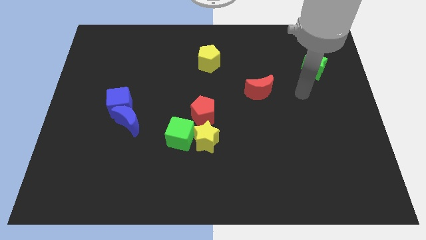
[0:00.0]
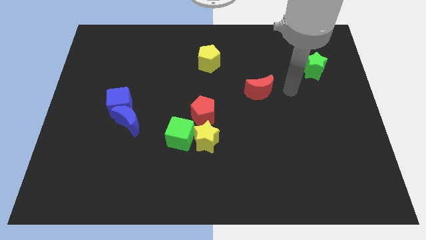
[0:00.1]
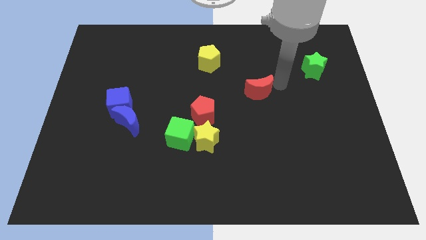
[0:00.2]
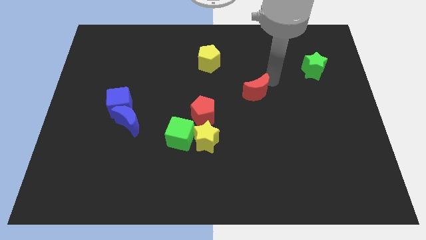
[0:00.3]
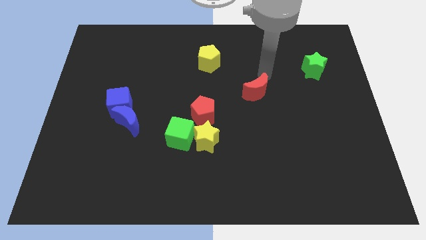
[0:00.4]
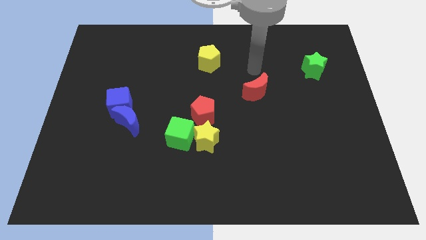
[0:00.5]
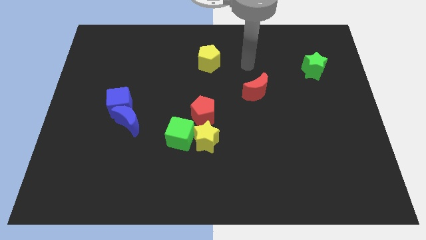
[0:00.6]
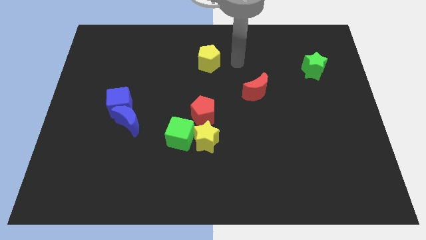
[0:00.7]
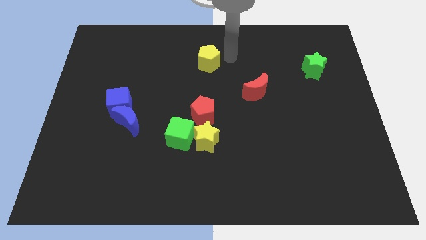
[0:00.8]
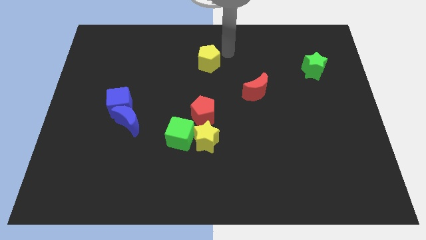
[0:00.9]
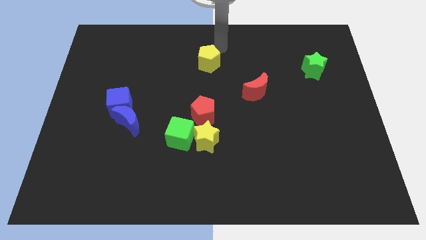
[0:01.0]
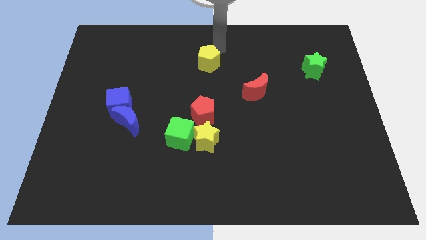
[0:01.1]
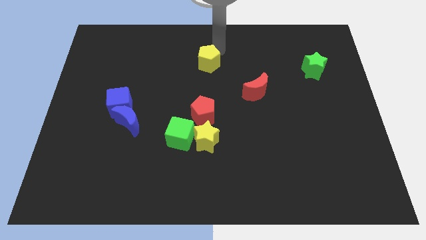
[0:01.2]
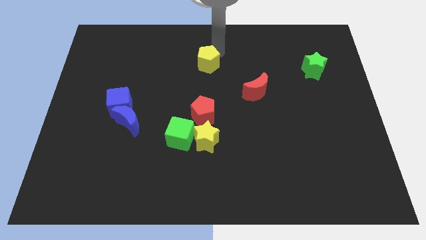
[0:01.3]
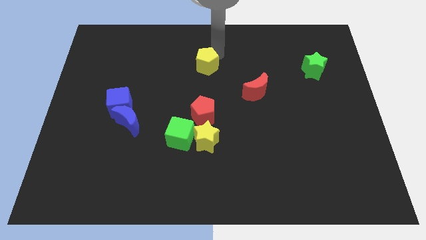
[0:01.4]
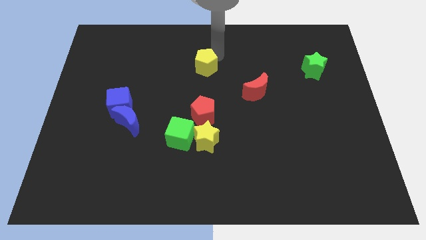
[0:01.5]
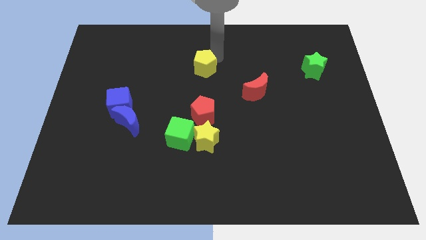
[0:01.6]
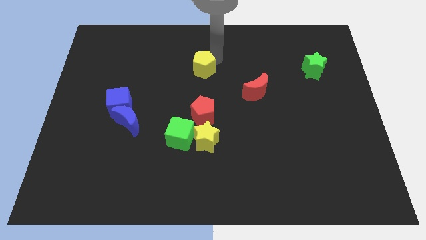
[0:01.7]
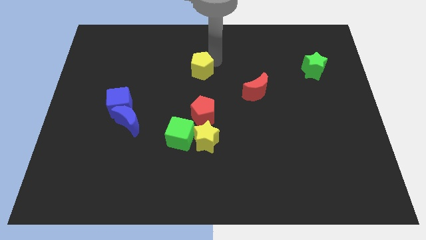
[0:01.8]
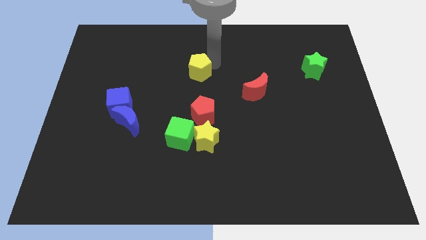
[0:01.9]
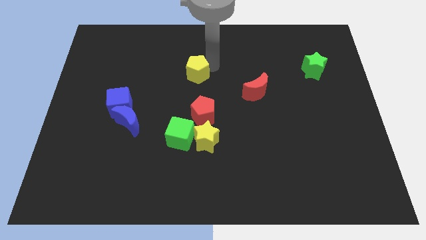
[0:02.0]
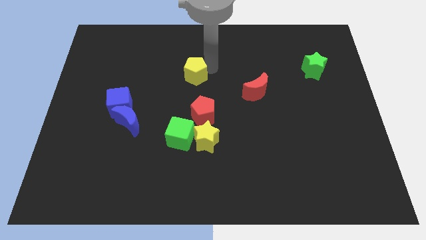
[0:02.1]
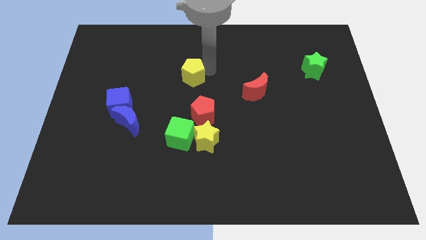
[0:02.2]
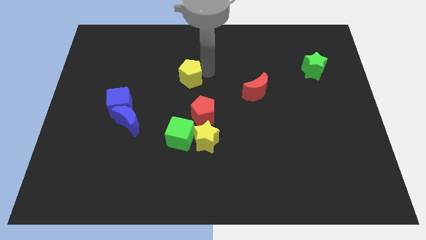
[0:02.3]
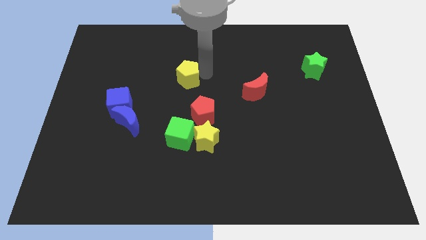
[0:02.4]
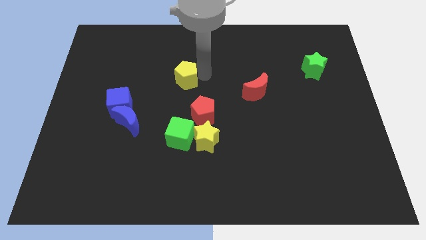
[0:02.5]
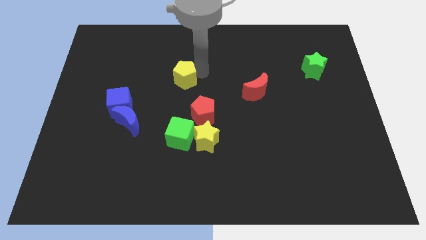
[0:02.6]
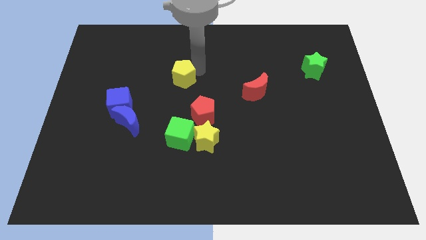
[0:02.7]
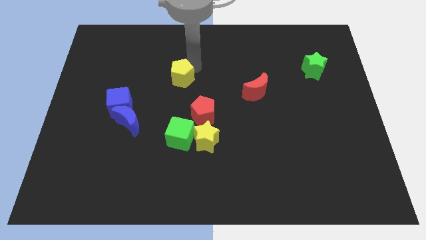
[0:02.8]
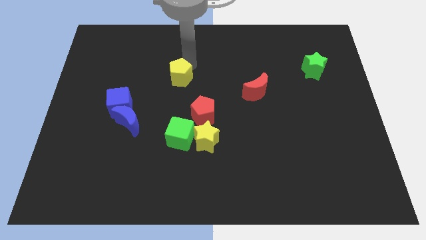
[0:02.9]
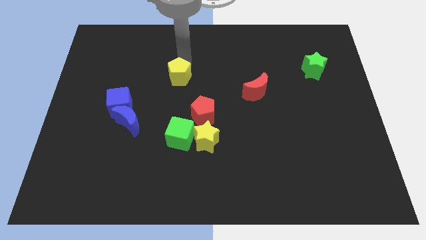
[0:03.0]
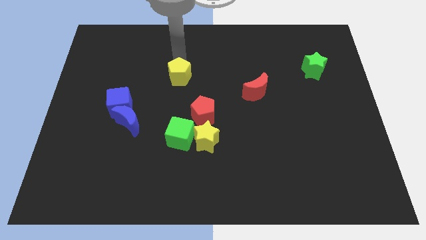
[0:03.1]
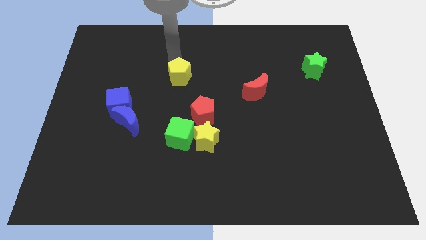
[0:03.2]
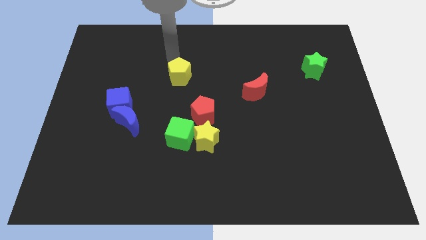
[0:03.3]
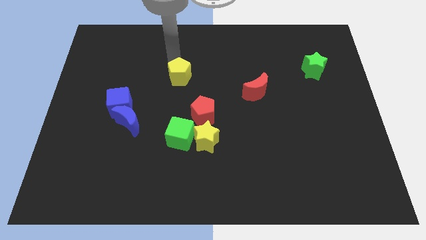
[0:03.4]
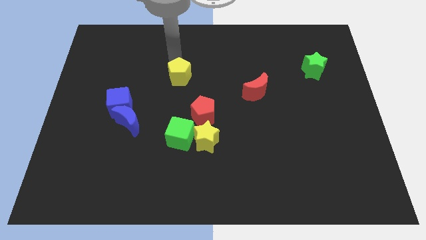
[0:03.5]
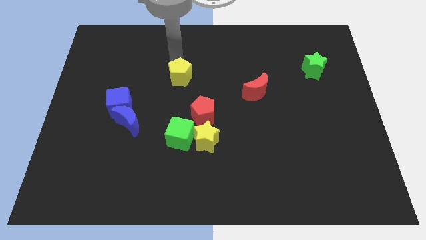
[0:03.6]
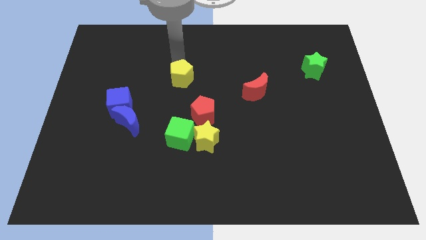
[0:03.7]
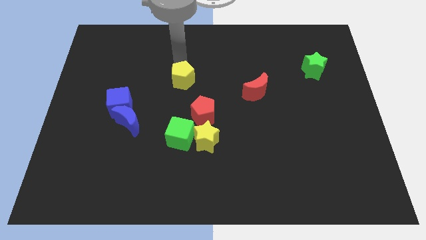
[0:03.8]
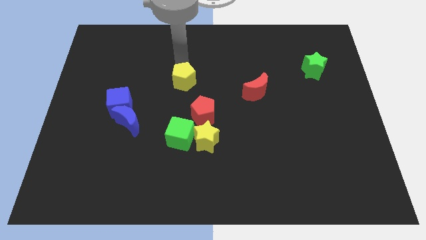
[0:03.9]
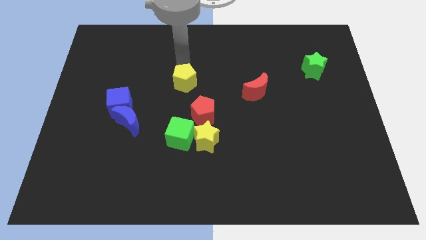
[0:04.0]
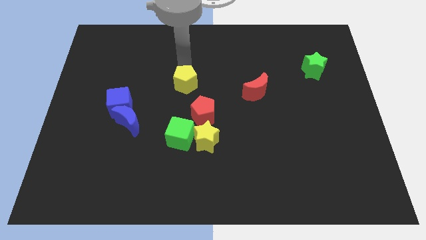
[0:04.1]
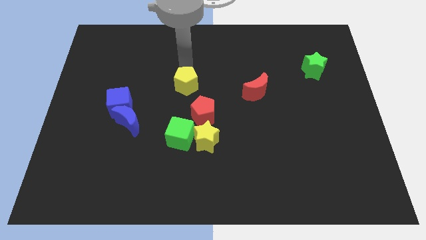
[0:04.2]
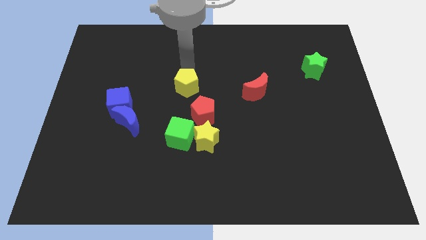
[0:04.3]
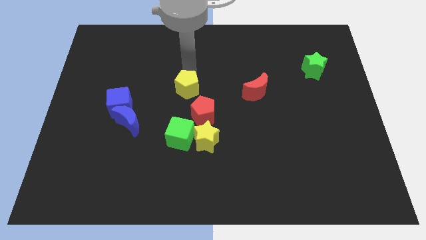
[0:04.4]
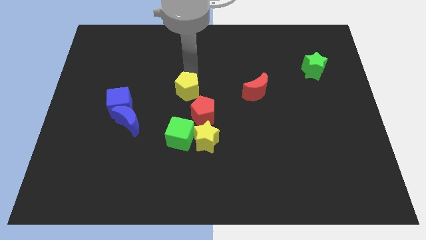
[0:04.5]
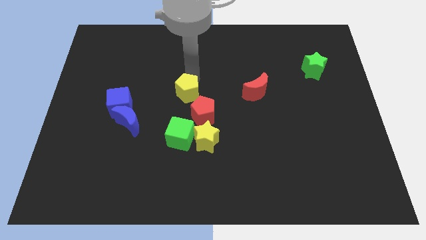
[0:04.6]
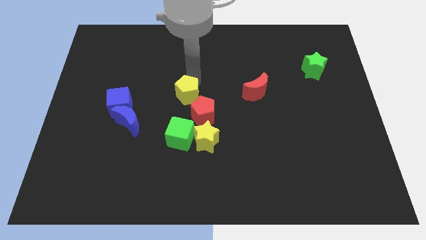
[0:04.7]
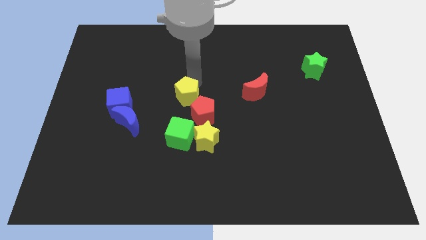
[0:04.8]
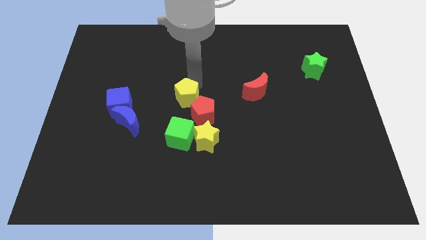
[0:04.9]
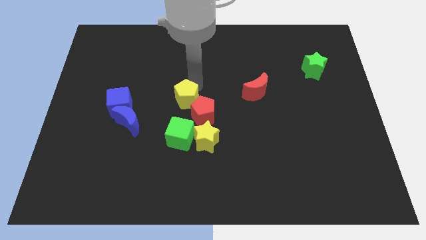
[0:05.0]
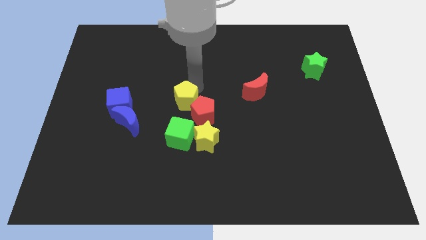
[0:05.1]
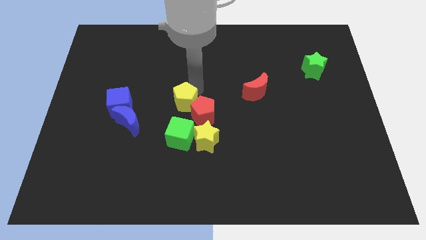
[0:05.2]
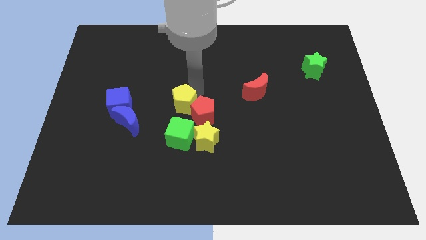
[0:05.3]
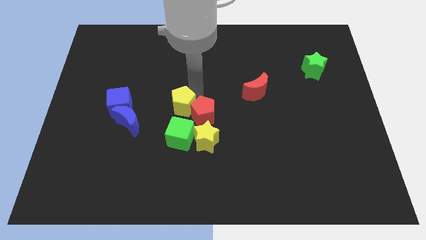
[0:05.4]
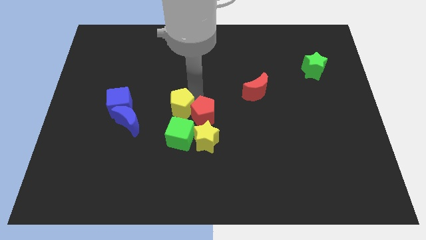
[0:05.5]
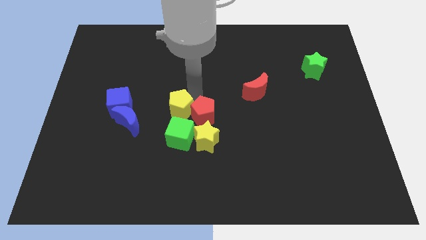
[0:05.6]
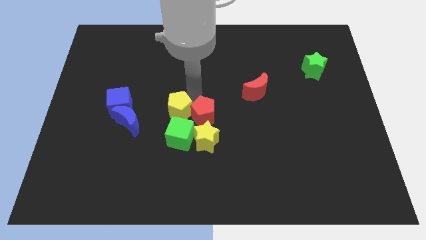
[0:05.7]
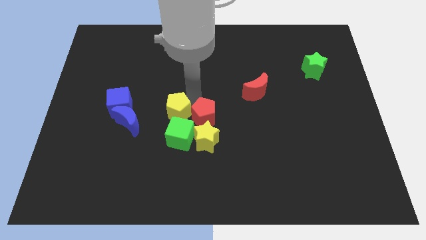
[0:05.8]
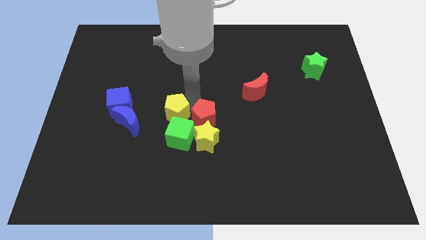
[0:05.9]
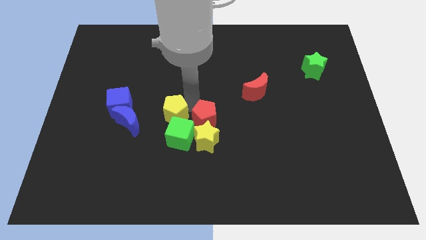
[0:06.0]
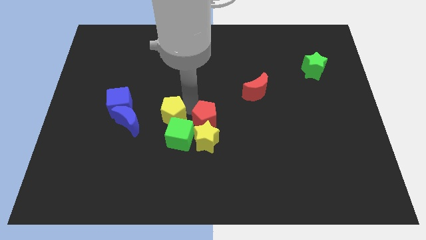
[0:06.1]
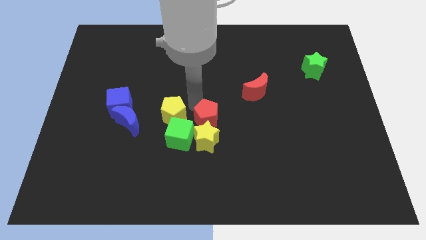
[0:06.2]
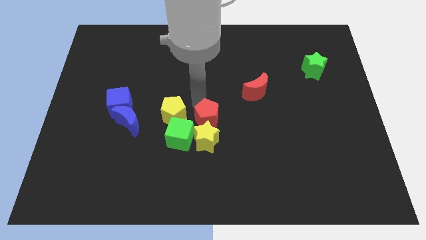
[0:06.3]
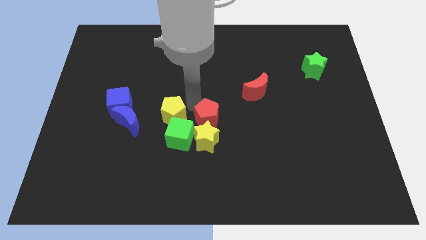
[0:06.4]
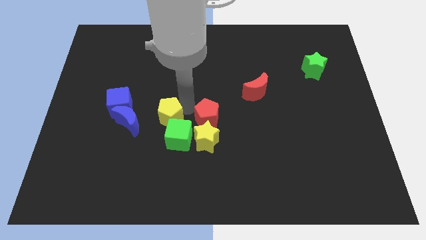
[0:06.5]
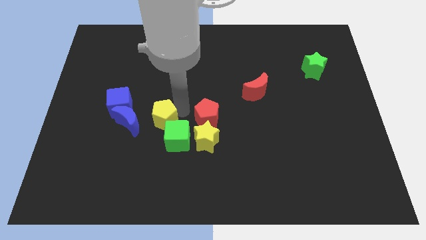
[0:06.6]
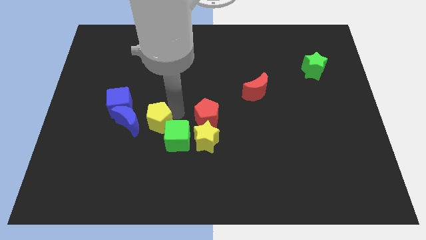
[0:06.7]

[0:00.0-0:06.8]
push the yellow pentagon to the left of the green cube

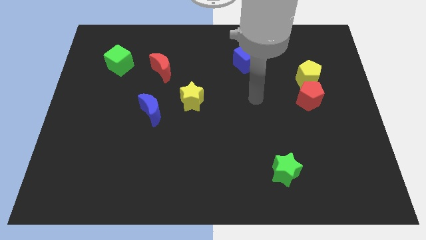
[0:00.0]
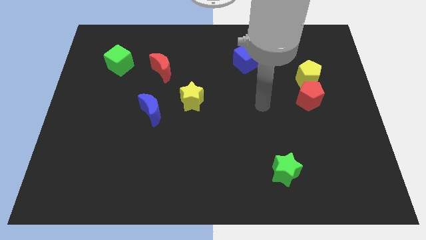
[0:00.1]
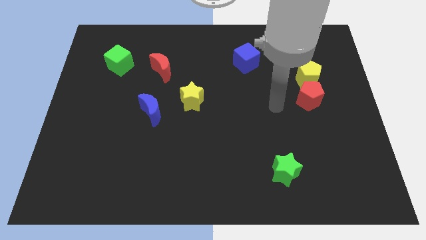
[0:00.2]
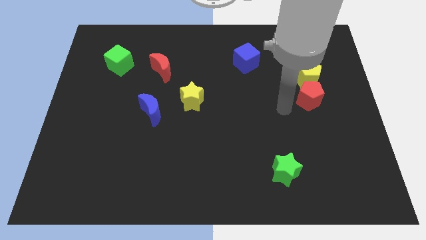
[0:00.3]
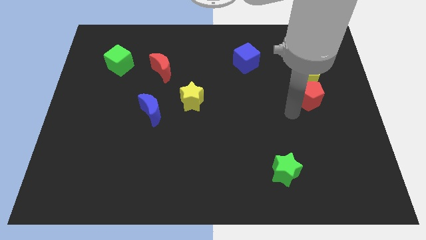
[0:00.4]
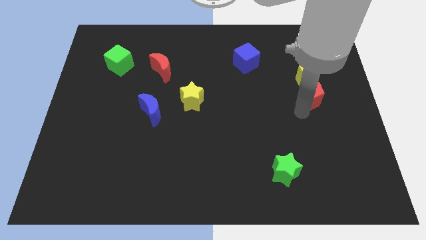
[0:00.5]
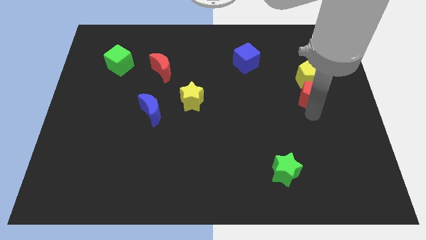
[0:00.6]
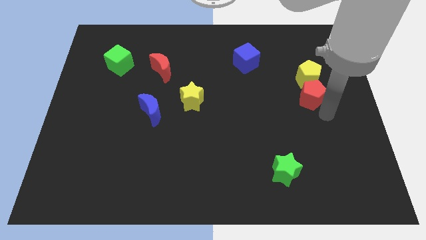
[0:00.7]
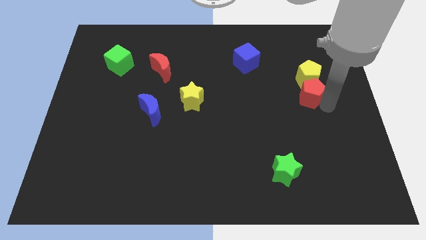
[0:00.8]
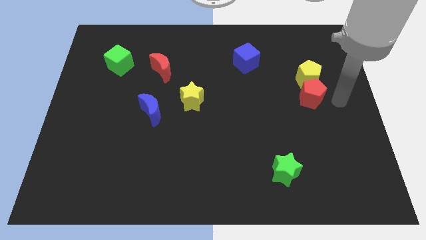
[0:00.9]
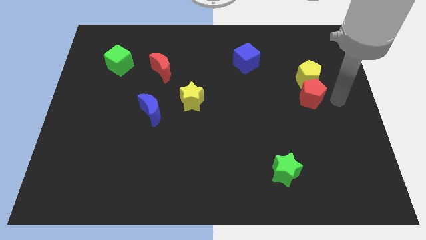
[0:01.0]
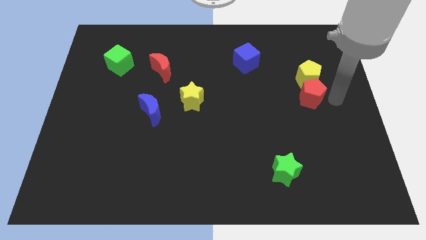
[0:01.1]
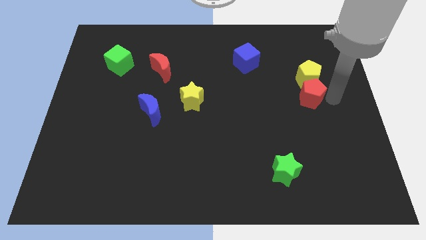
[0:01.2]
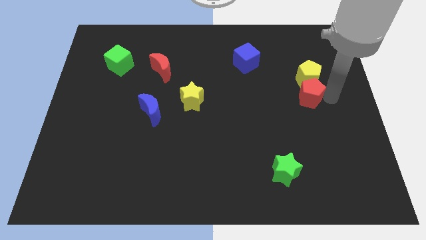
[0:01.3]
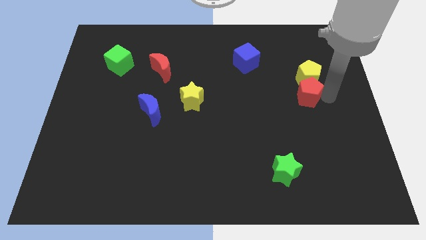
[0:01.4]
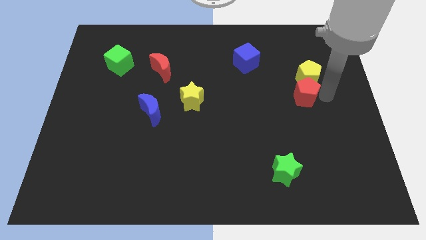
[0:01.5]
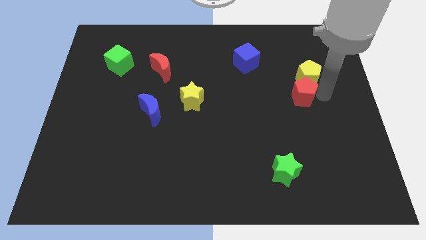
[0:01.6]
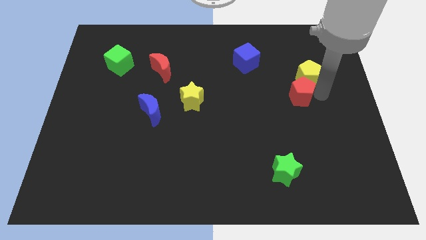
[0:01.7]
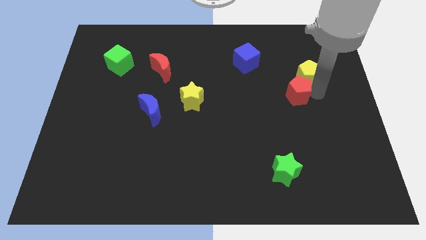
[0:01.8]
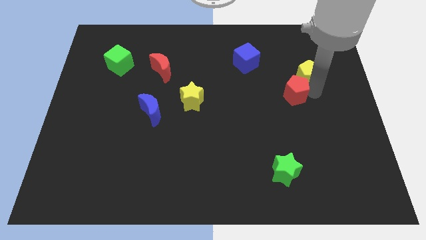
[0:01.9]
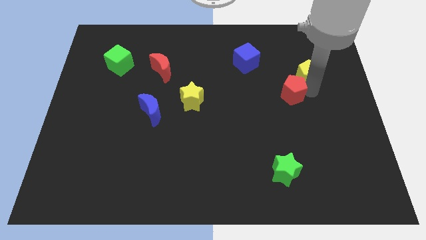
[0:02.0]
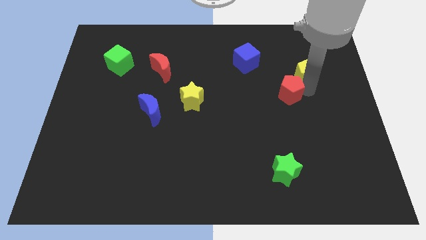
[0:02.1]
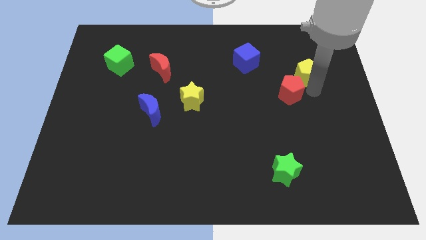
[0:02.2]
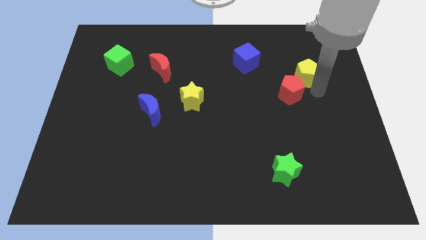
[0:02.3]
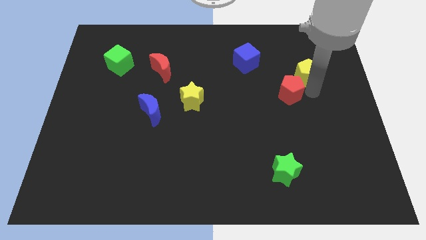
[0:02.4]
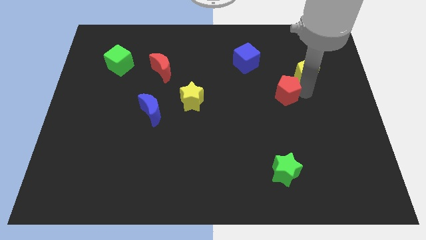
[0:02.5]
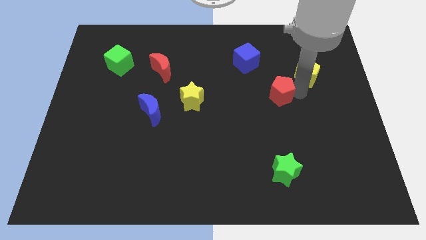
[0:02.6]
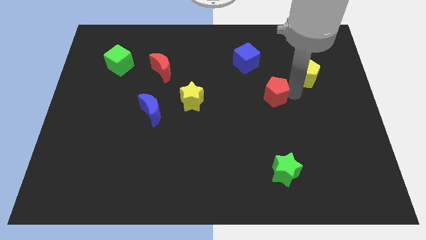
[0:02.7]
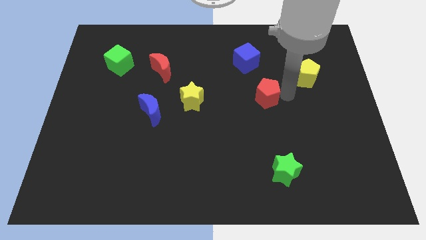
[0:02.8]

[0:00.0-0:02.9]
slide the red pentagon to the bottom of the blue cube
